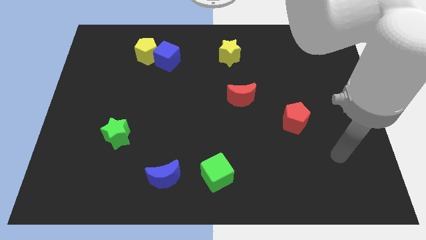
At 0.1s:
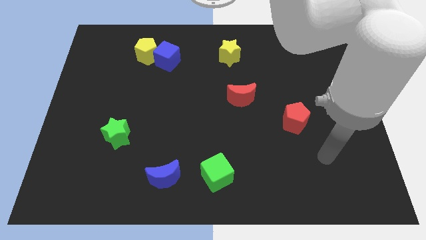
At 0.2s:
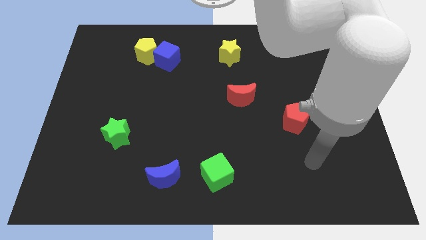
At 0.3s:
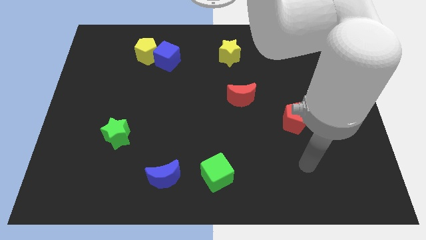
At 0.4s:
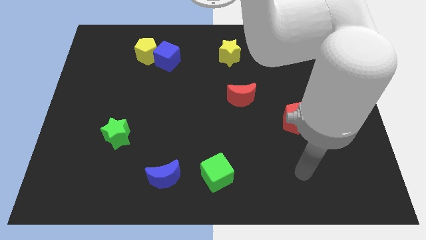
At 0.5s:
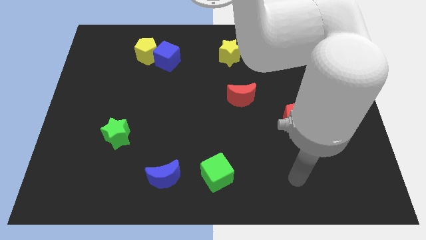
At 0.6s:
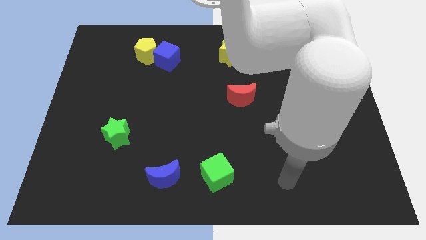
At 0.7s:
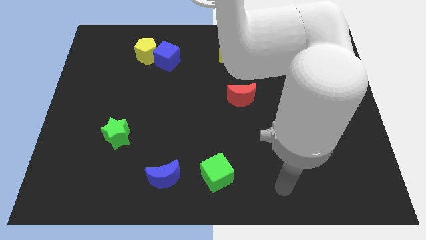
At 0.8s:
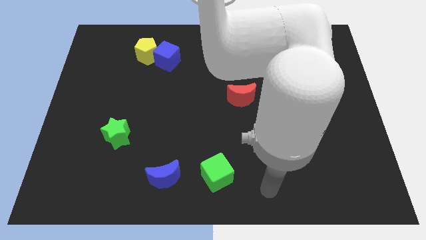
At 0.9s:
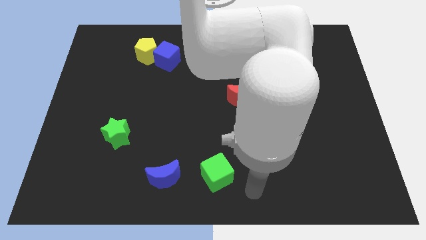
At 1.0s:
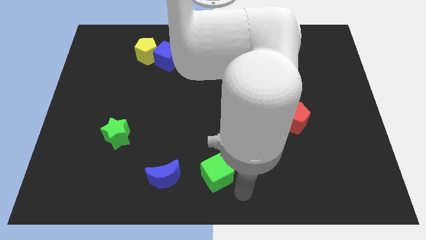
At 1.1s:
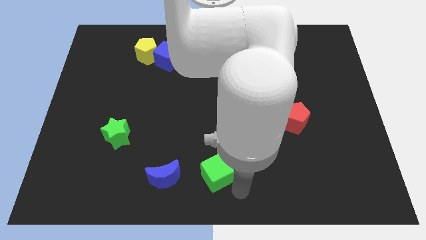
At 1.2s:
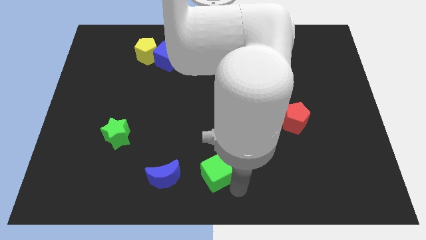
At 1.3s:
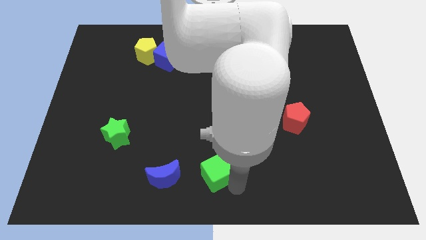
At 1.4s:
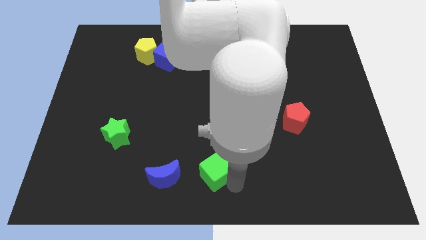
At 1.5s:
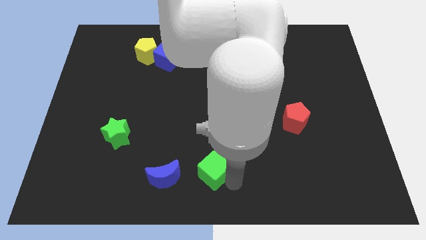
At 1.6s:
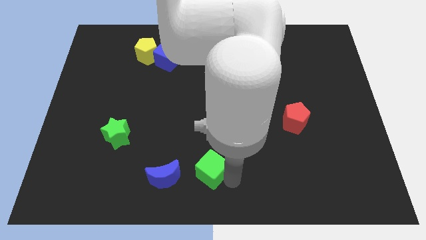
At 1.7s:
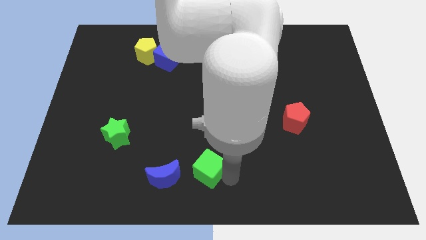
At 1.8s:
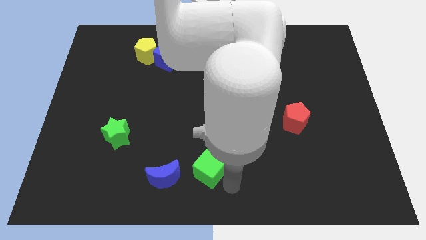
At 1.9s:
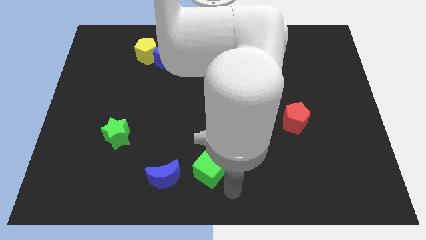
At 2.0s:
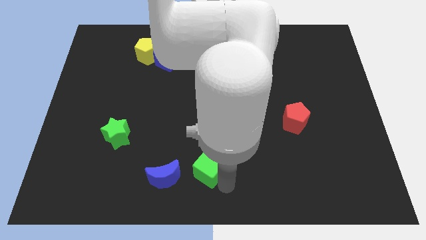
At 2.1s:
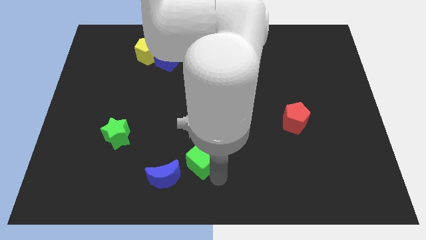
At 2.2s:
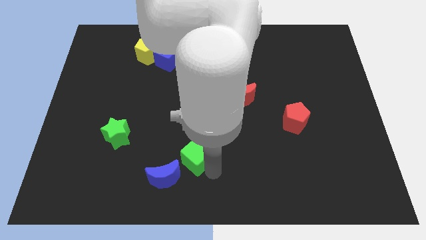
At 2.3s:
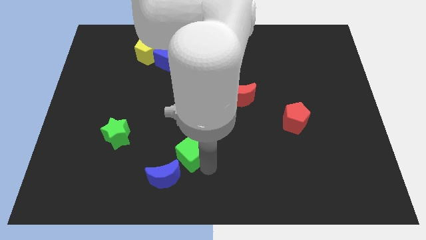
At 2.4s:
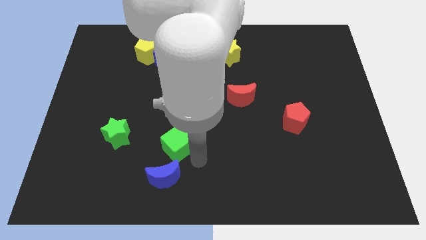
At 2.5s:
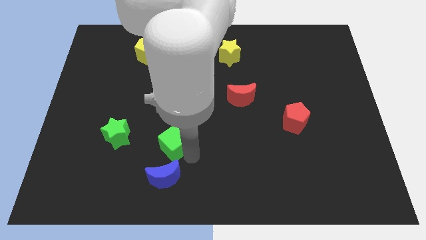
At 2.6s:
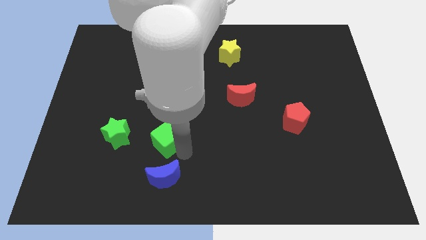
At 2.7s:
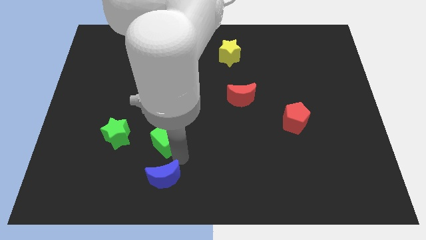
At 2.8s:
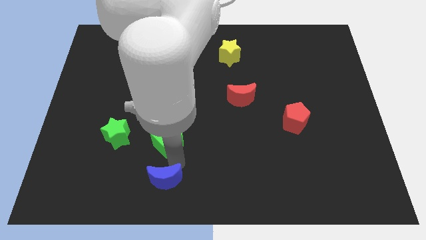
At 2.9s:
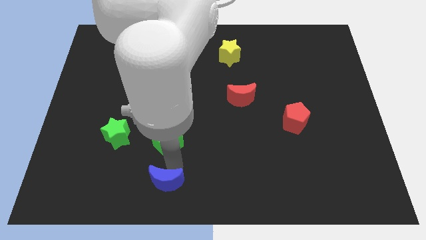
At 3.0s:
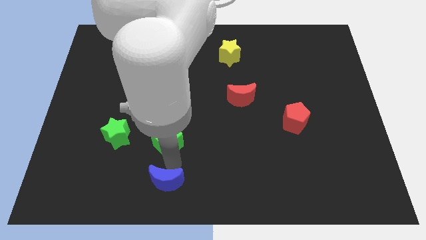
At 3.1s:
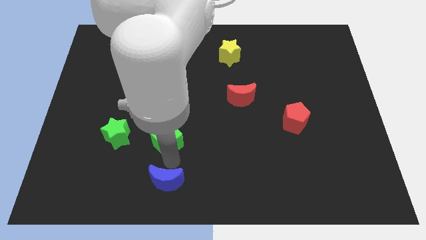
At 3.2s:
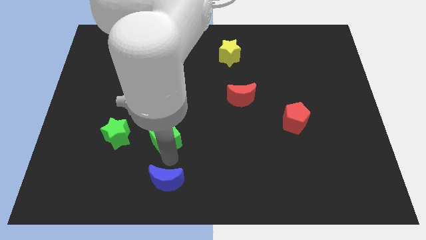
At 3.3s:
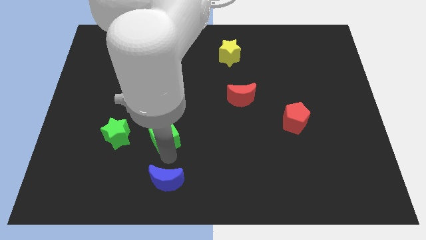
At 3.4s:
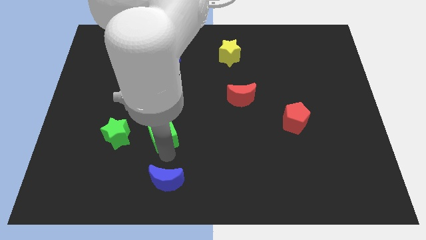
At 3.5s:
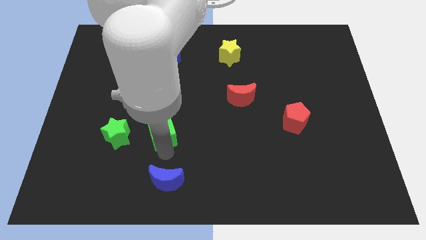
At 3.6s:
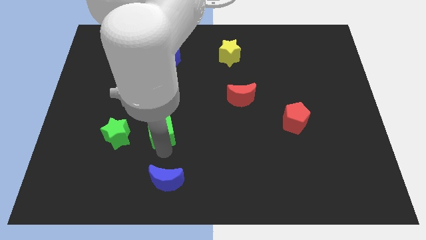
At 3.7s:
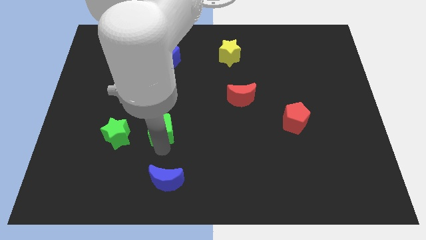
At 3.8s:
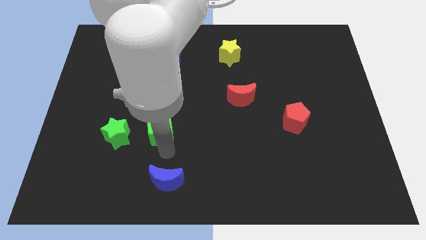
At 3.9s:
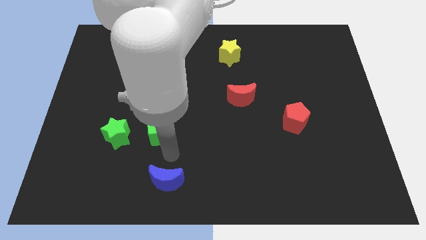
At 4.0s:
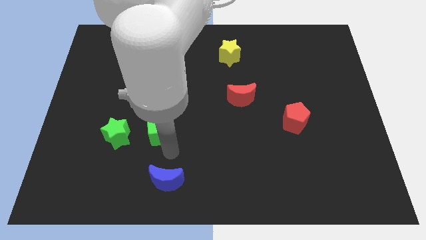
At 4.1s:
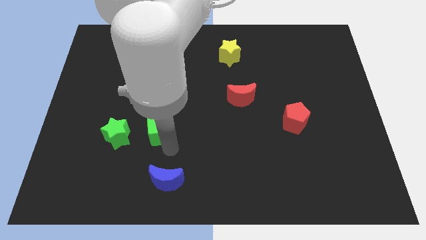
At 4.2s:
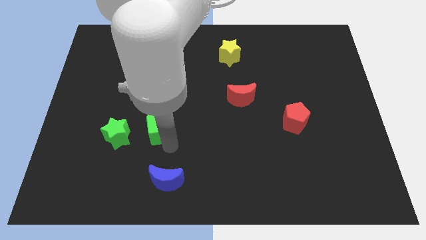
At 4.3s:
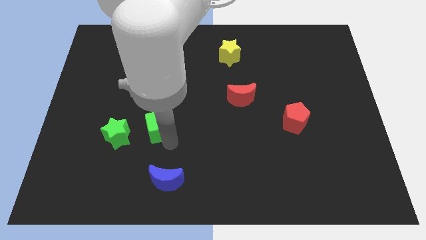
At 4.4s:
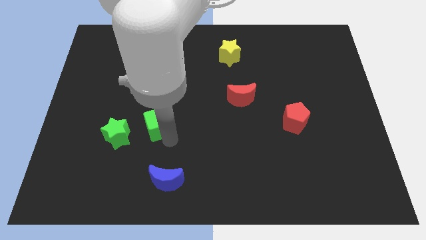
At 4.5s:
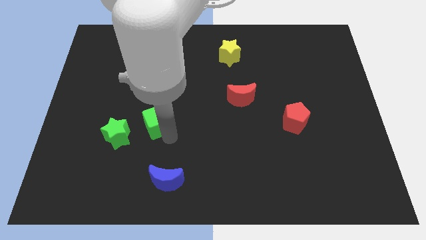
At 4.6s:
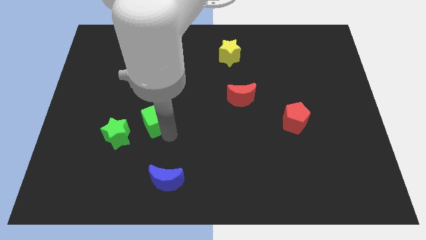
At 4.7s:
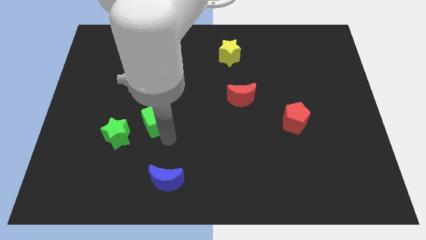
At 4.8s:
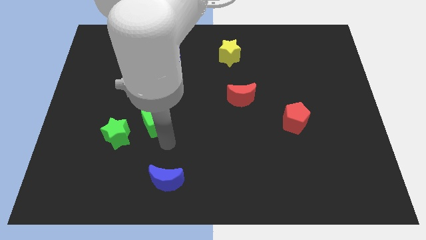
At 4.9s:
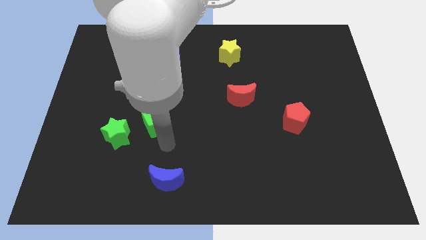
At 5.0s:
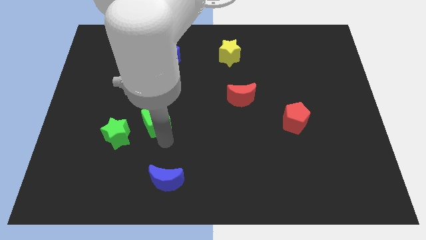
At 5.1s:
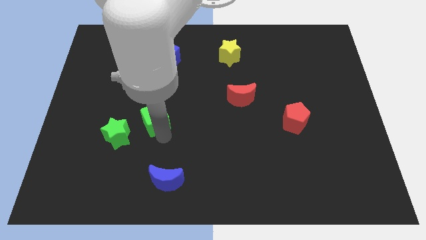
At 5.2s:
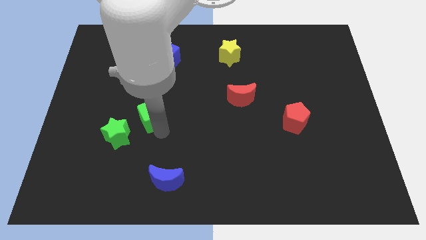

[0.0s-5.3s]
move the green cube upwards and to the left

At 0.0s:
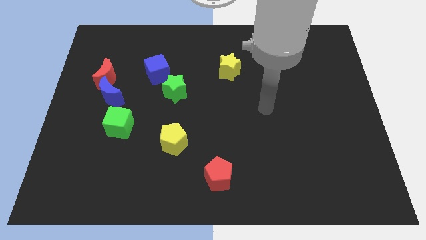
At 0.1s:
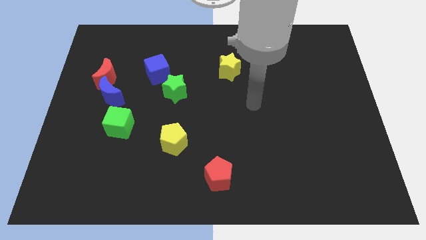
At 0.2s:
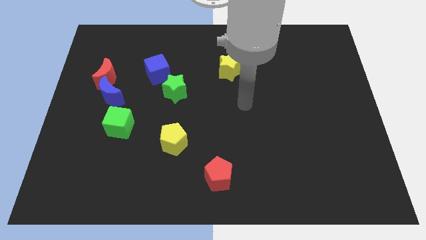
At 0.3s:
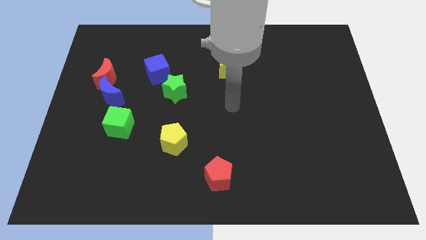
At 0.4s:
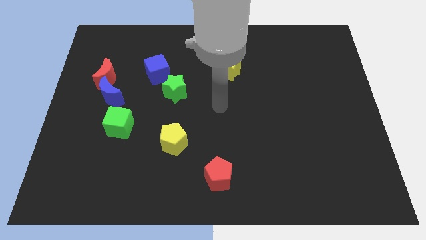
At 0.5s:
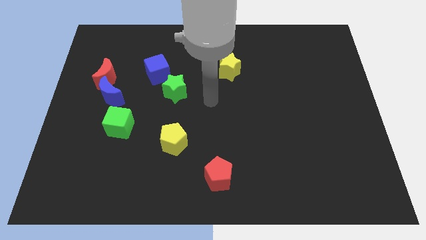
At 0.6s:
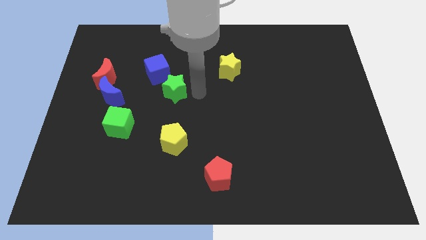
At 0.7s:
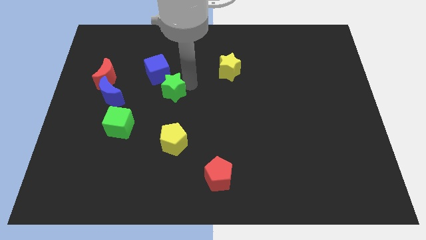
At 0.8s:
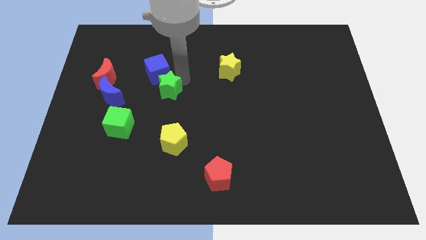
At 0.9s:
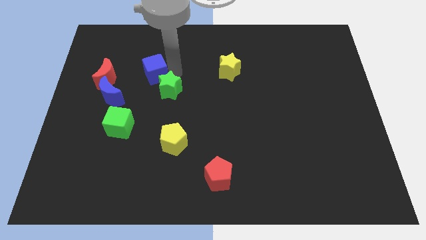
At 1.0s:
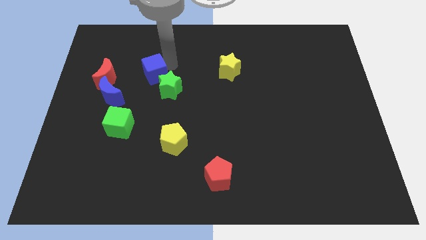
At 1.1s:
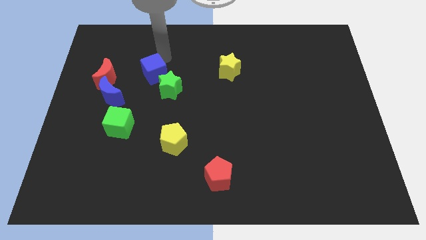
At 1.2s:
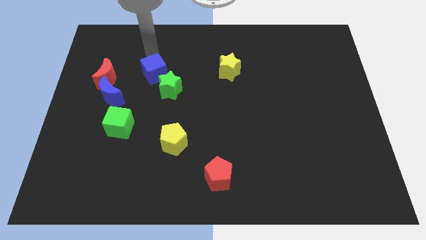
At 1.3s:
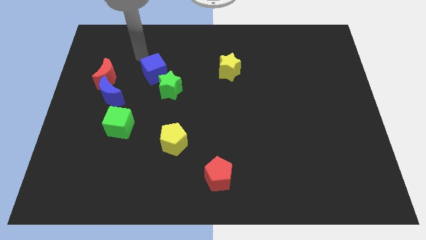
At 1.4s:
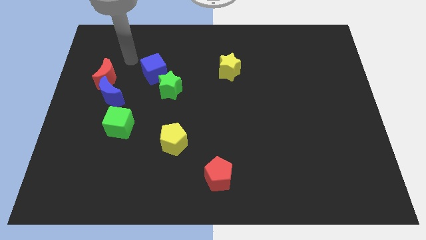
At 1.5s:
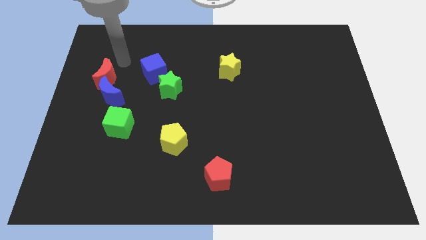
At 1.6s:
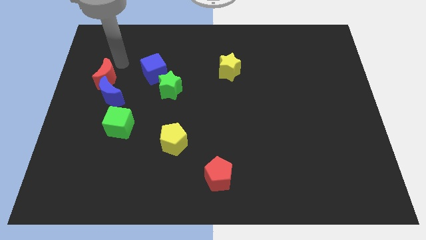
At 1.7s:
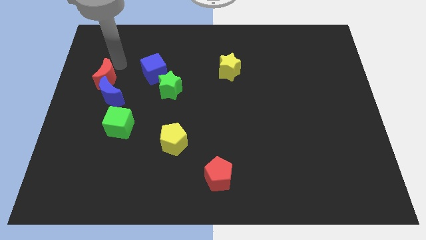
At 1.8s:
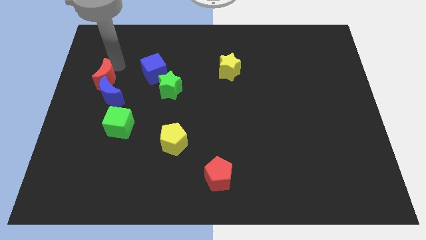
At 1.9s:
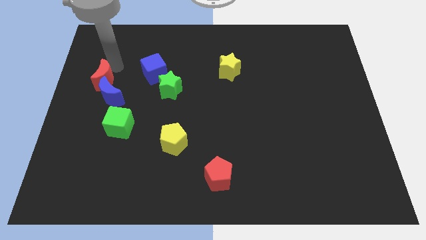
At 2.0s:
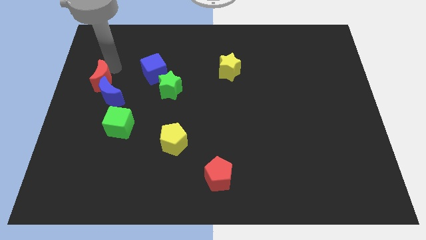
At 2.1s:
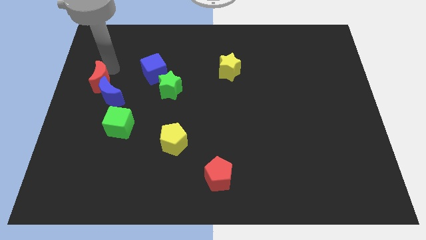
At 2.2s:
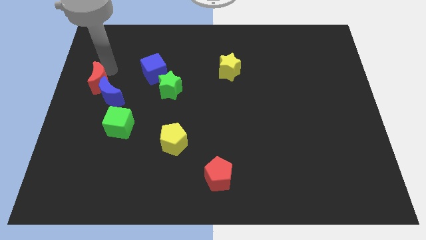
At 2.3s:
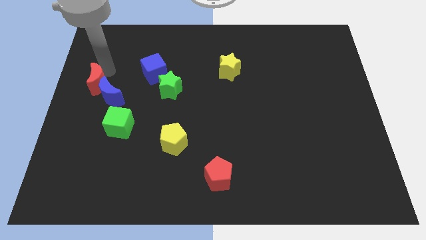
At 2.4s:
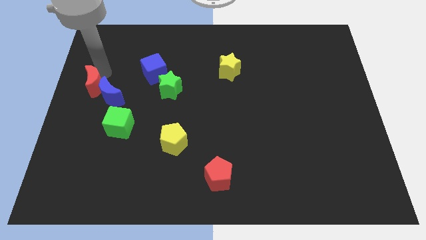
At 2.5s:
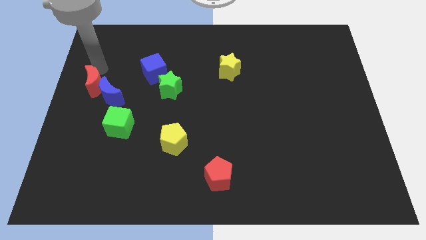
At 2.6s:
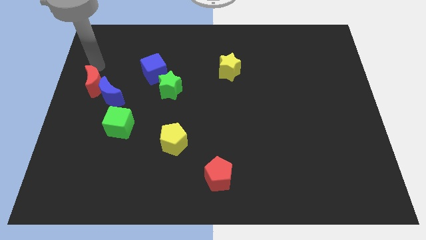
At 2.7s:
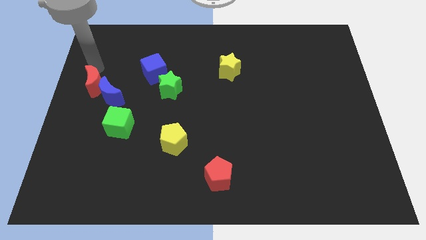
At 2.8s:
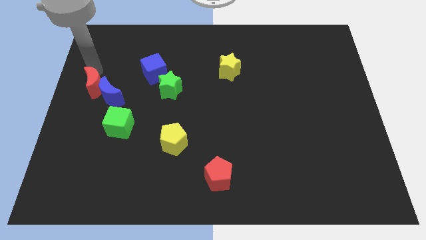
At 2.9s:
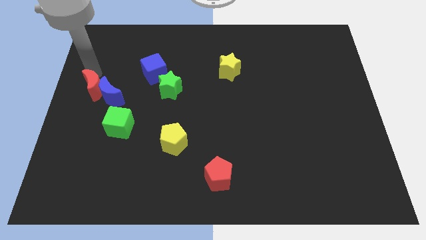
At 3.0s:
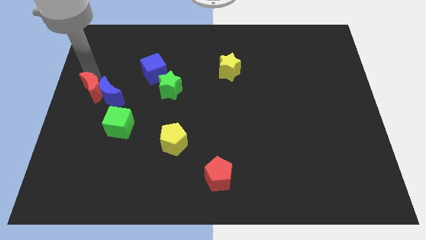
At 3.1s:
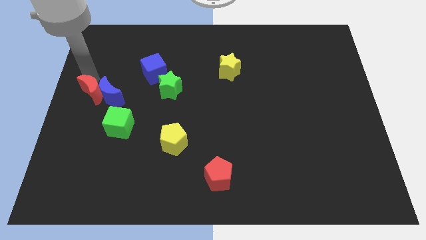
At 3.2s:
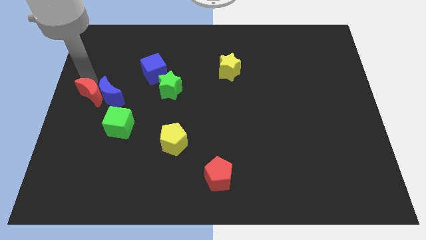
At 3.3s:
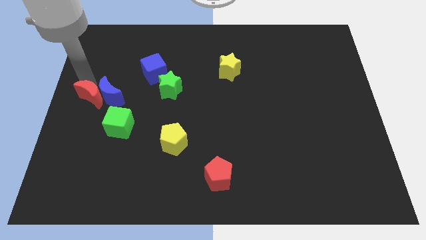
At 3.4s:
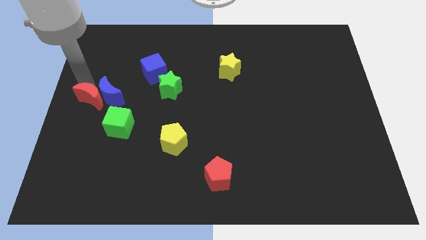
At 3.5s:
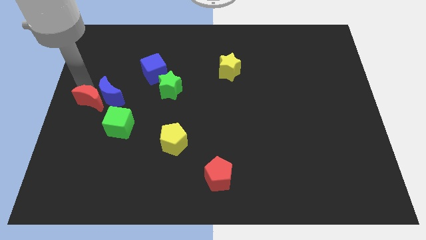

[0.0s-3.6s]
slide the red moon downwards slightly

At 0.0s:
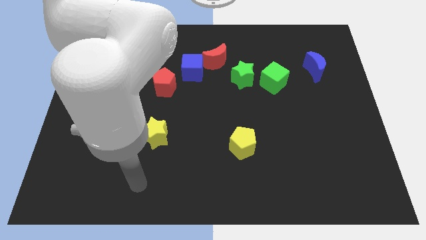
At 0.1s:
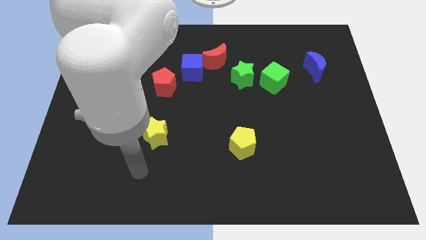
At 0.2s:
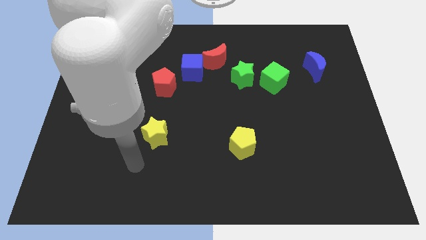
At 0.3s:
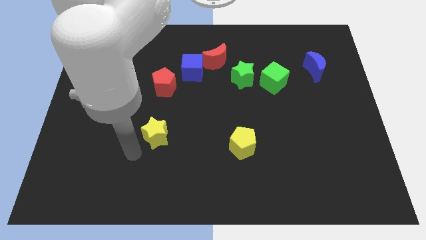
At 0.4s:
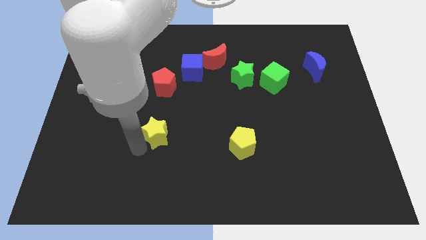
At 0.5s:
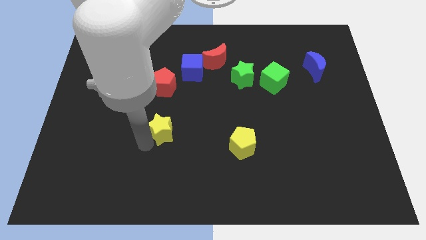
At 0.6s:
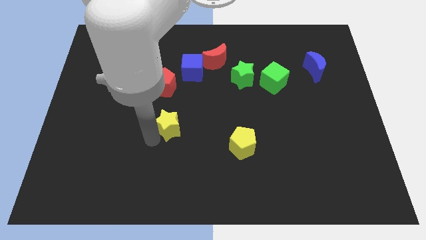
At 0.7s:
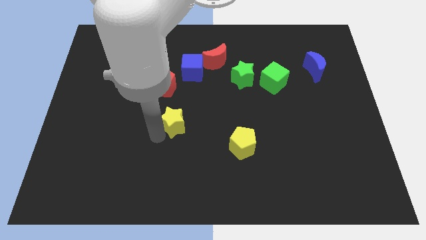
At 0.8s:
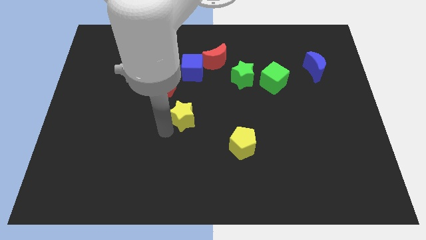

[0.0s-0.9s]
move the yellow star upwards and right diagonally a little bit
